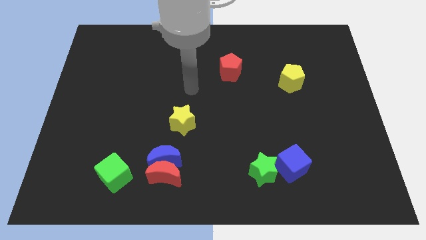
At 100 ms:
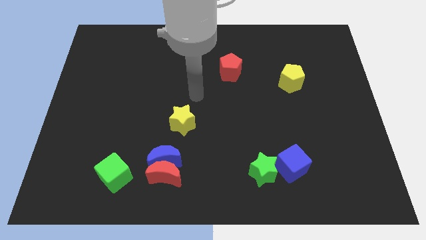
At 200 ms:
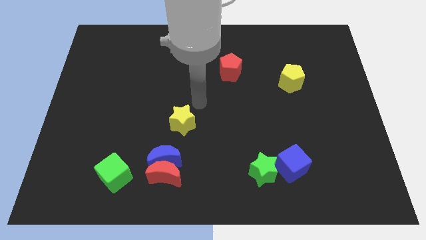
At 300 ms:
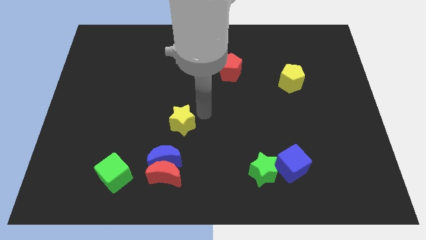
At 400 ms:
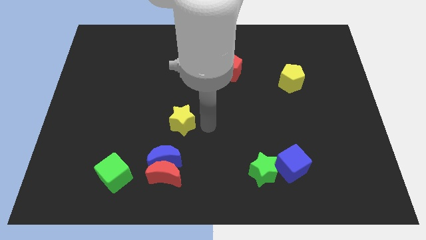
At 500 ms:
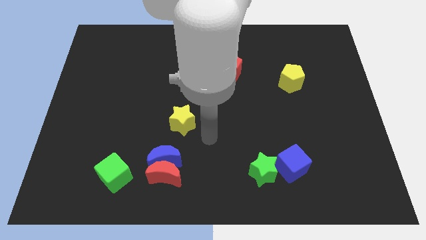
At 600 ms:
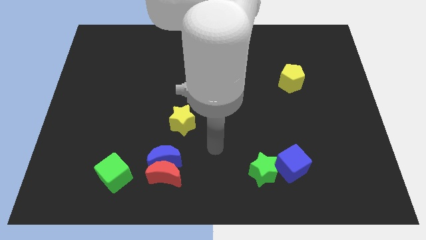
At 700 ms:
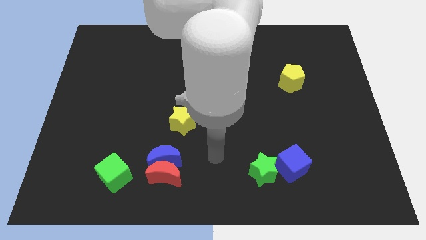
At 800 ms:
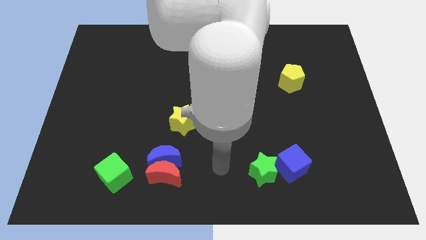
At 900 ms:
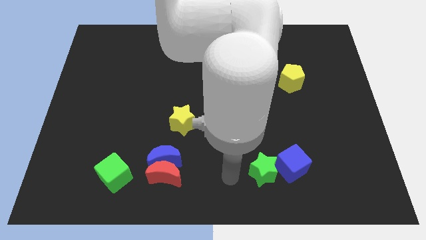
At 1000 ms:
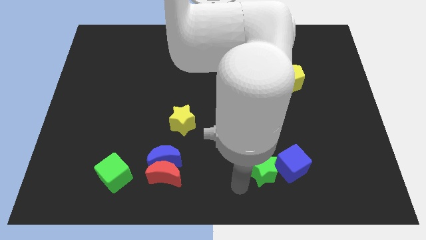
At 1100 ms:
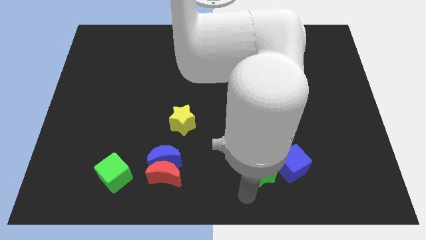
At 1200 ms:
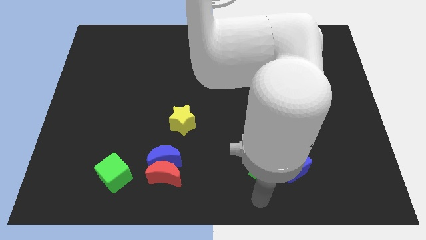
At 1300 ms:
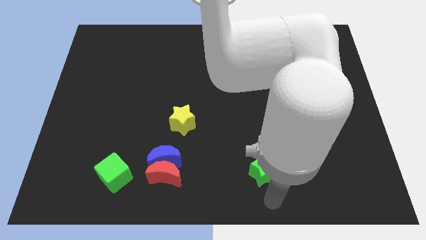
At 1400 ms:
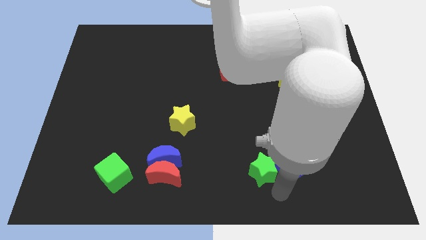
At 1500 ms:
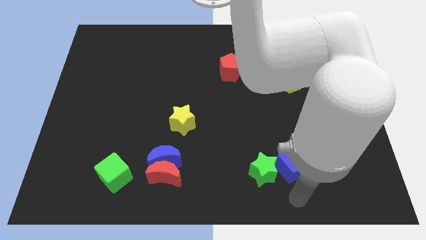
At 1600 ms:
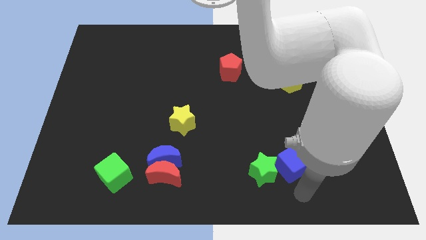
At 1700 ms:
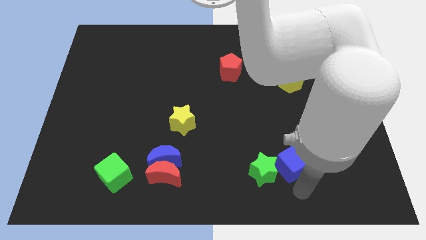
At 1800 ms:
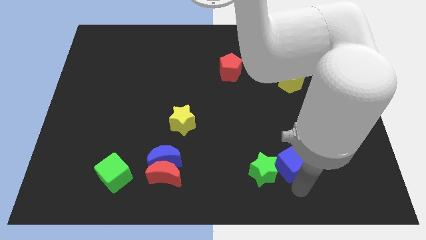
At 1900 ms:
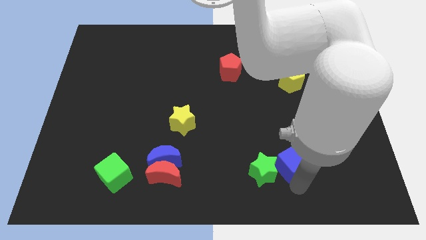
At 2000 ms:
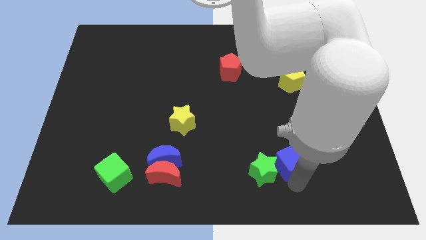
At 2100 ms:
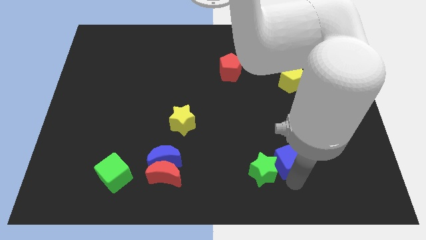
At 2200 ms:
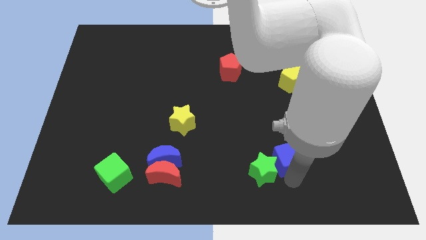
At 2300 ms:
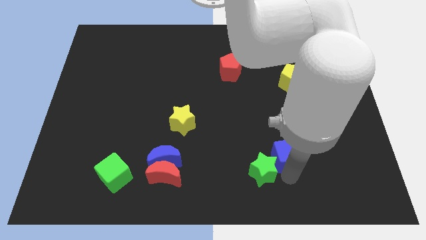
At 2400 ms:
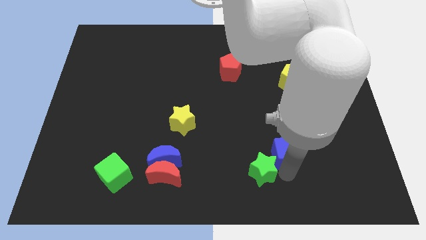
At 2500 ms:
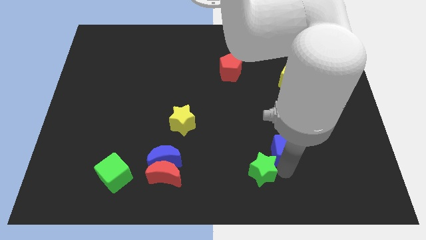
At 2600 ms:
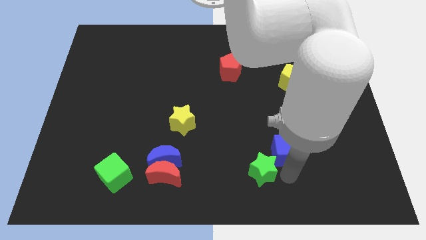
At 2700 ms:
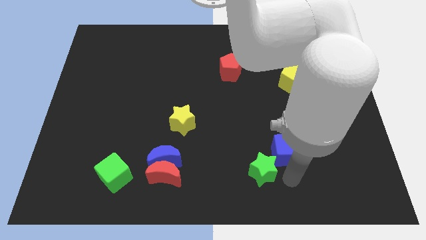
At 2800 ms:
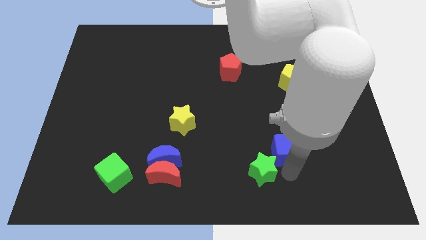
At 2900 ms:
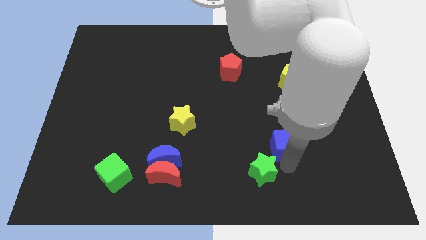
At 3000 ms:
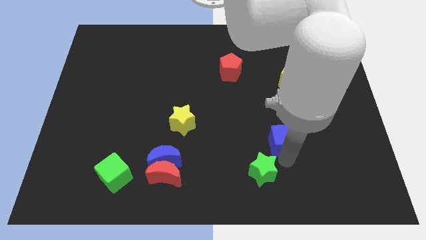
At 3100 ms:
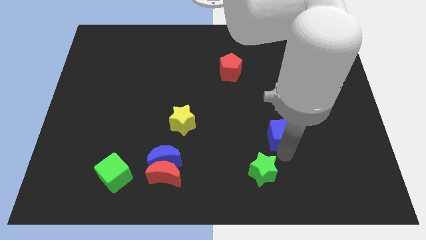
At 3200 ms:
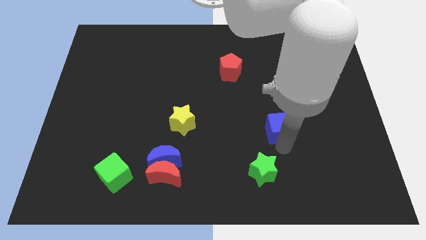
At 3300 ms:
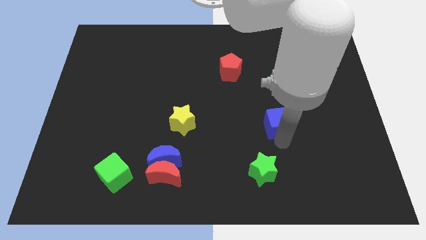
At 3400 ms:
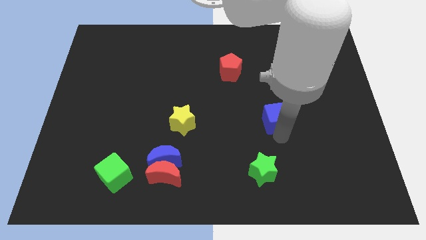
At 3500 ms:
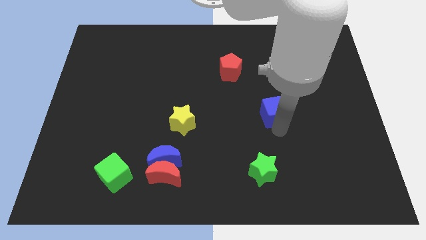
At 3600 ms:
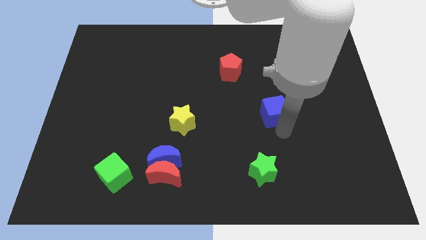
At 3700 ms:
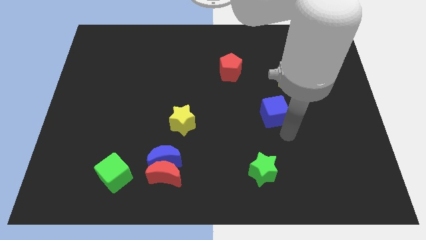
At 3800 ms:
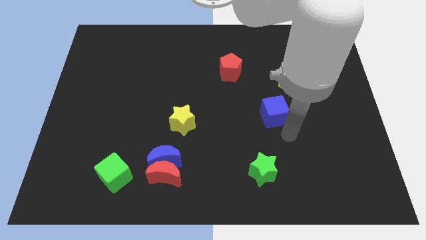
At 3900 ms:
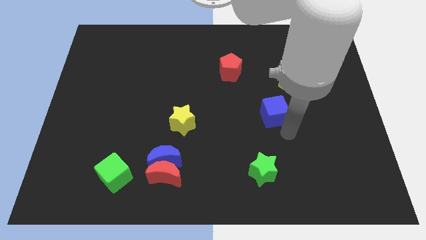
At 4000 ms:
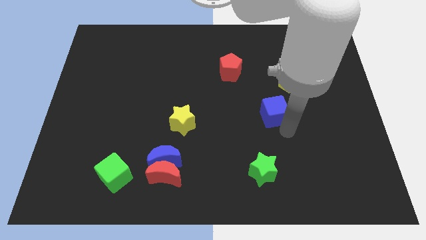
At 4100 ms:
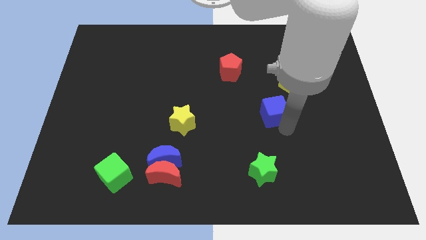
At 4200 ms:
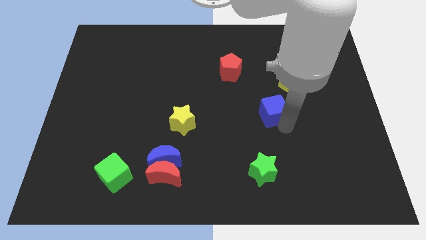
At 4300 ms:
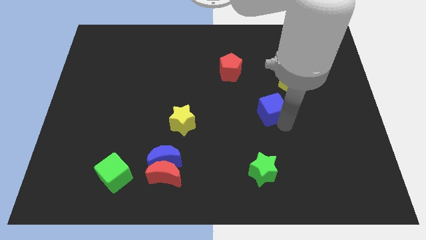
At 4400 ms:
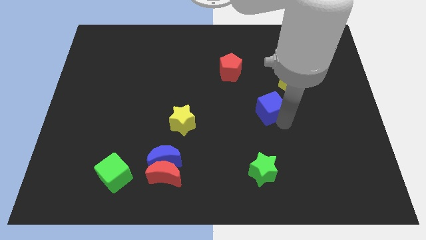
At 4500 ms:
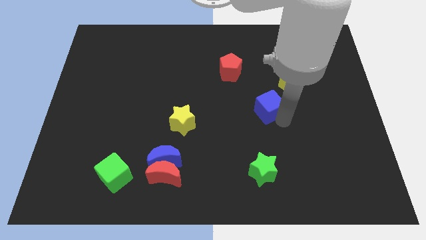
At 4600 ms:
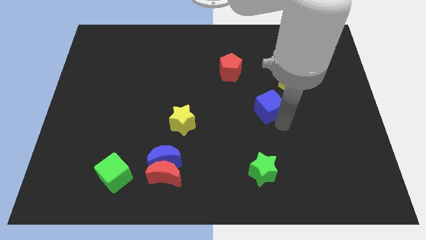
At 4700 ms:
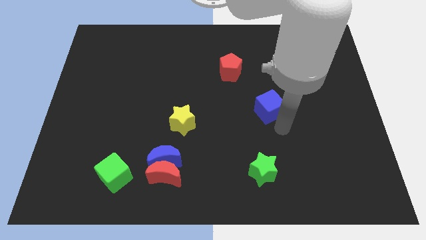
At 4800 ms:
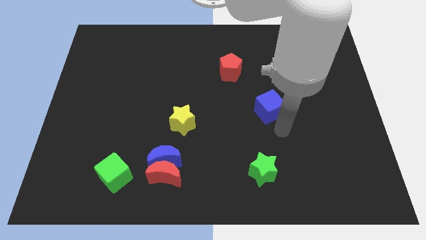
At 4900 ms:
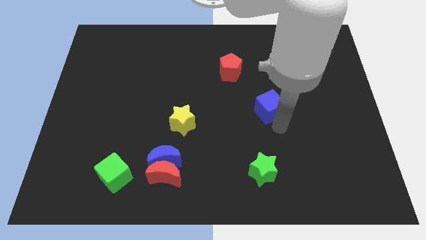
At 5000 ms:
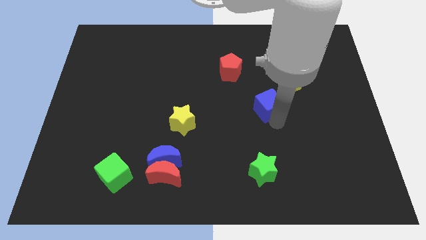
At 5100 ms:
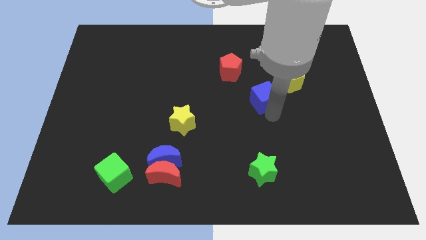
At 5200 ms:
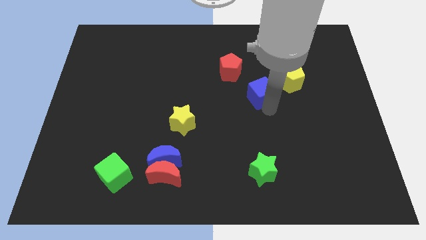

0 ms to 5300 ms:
put the blue cube left of the yellow pentagon

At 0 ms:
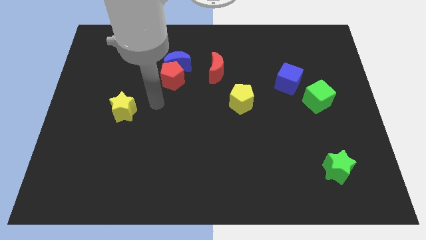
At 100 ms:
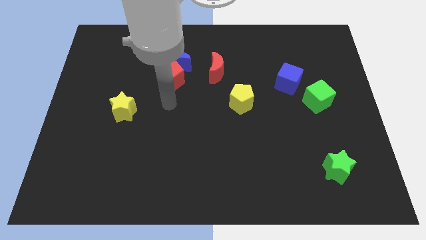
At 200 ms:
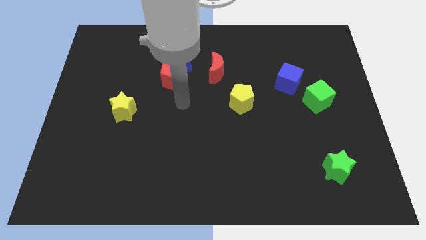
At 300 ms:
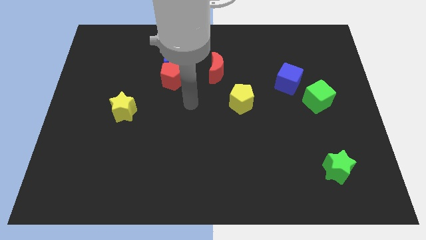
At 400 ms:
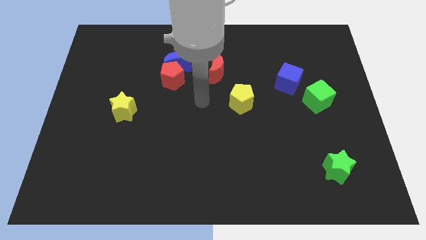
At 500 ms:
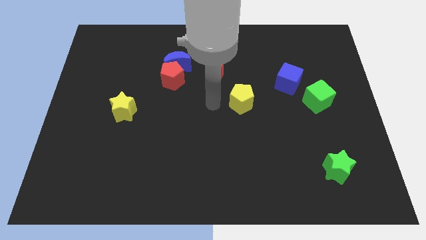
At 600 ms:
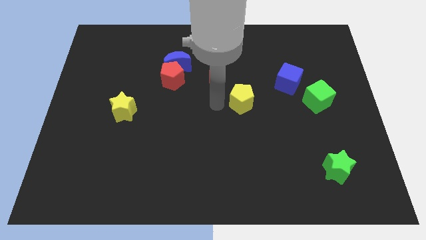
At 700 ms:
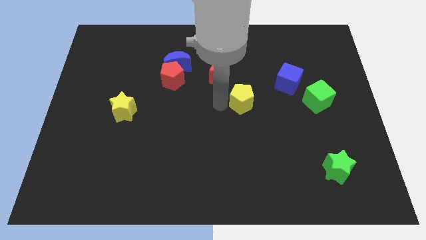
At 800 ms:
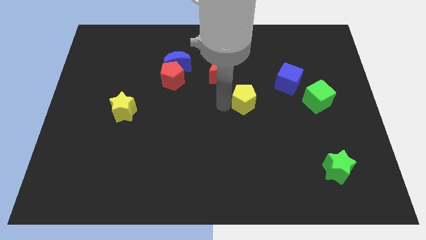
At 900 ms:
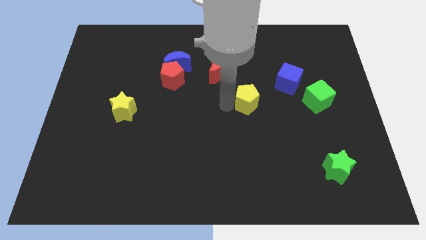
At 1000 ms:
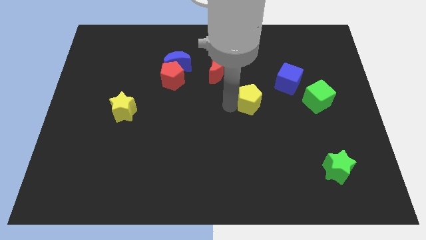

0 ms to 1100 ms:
slide the yellow pentagon to the bottom left of the blue cube

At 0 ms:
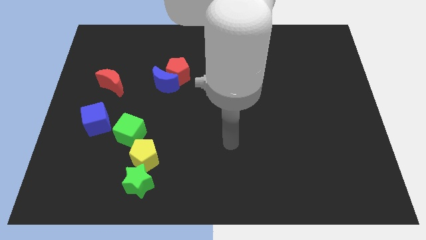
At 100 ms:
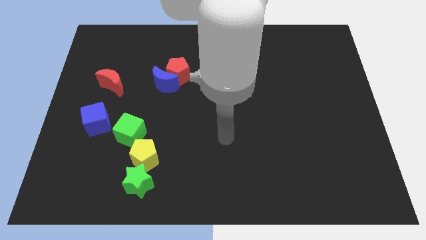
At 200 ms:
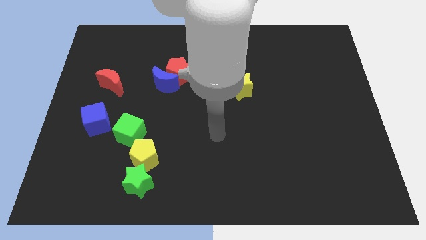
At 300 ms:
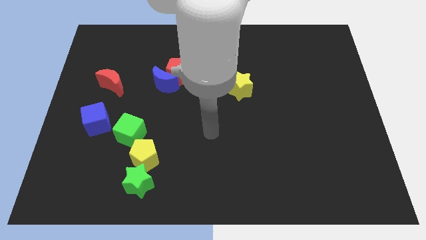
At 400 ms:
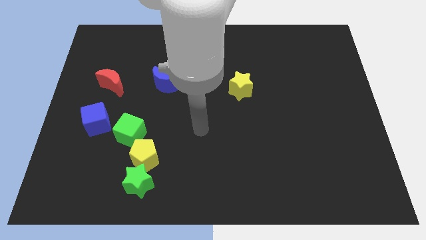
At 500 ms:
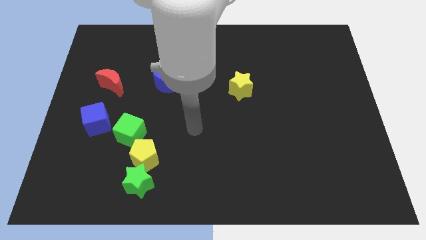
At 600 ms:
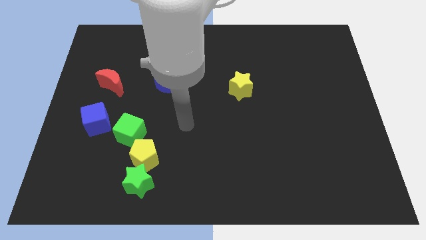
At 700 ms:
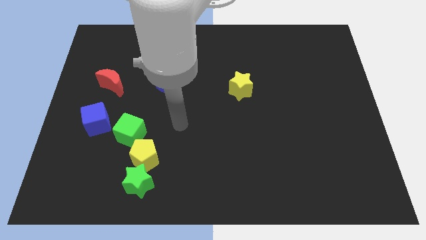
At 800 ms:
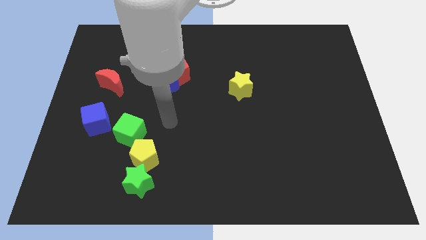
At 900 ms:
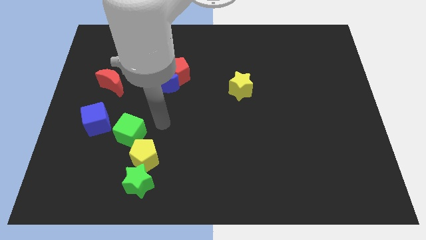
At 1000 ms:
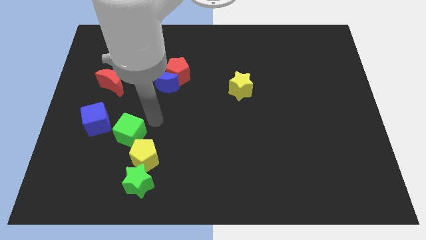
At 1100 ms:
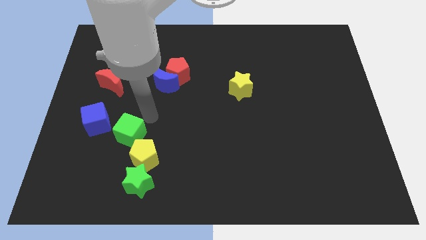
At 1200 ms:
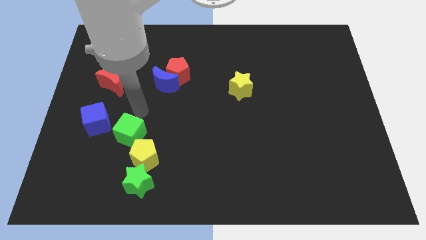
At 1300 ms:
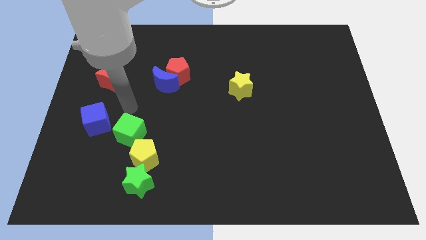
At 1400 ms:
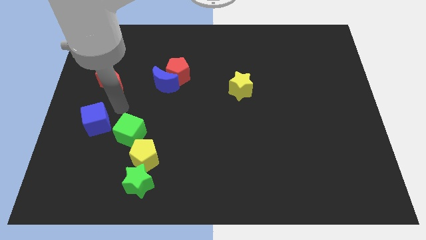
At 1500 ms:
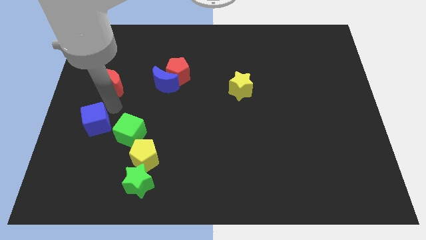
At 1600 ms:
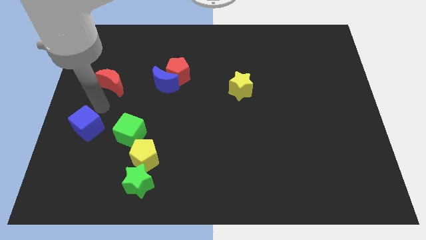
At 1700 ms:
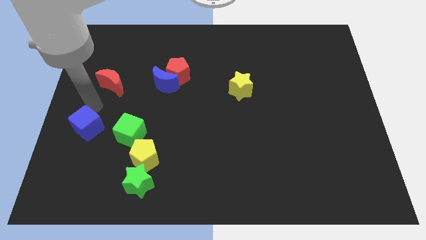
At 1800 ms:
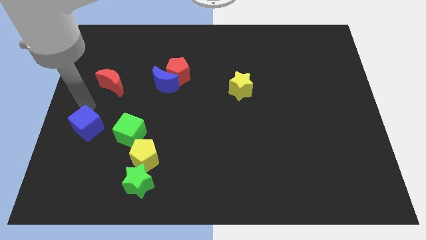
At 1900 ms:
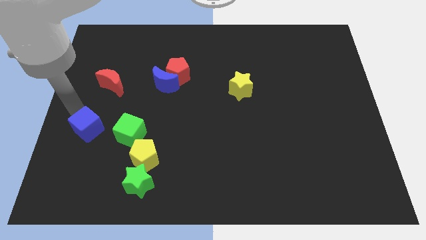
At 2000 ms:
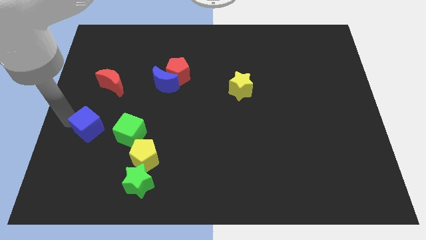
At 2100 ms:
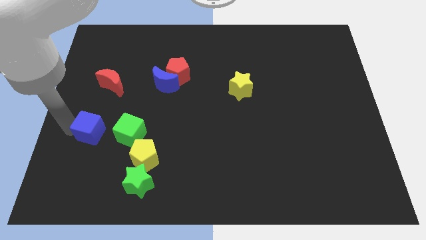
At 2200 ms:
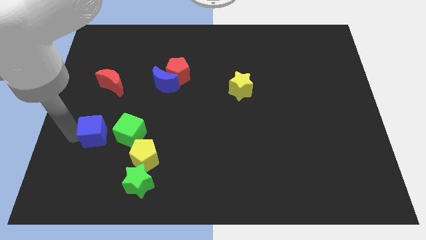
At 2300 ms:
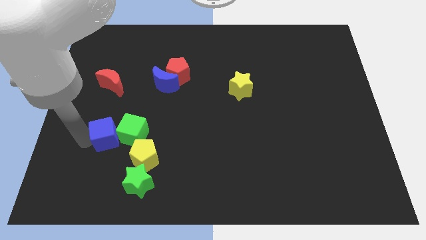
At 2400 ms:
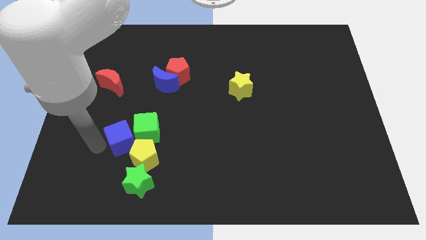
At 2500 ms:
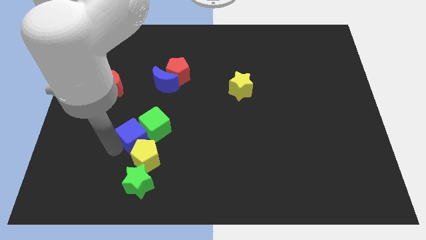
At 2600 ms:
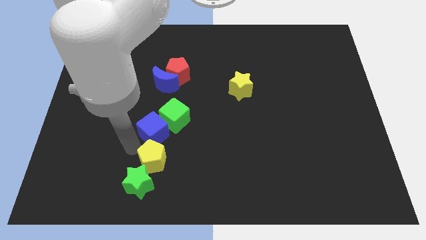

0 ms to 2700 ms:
move the green cube to the bottom of the red pentagon
